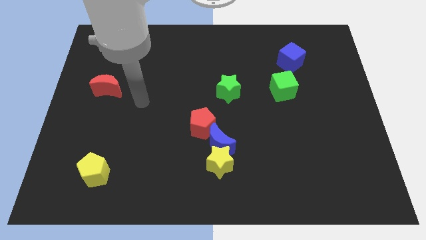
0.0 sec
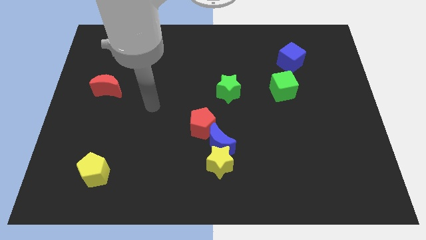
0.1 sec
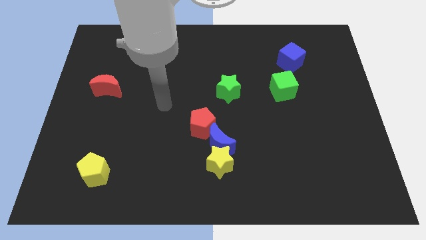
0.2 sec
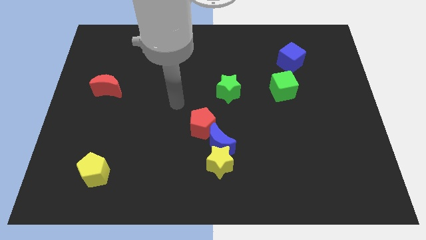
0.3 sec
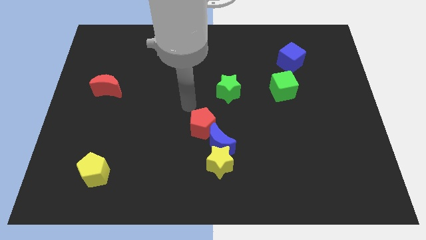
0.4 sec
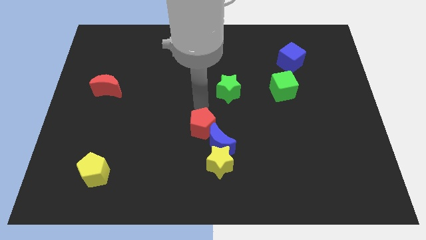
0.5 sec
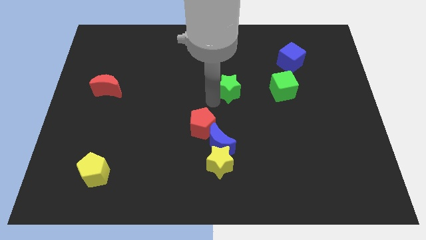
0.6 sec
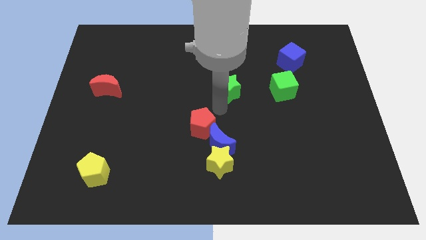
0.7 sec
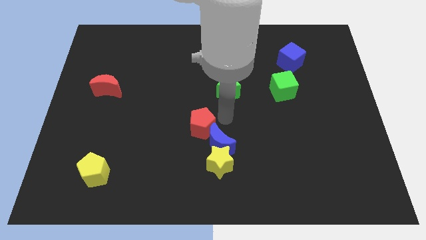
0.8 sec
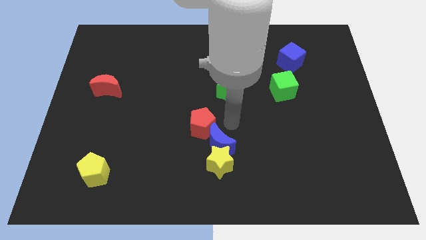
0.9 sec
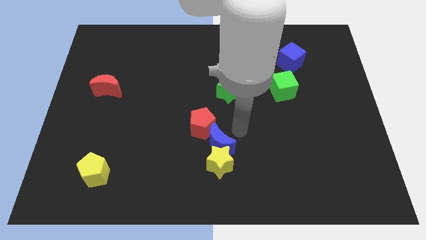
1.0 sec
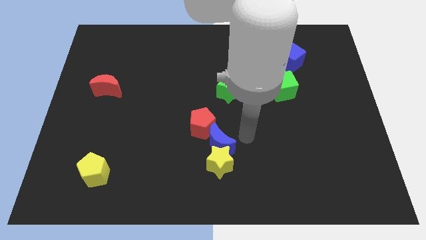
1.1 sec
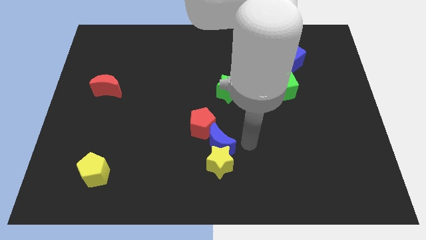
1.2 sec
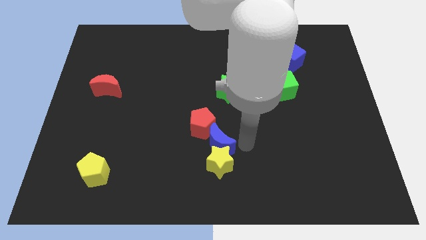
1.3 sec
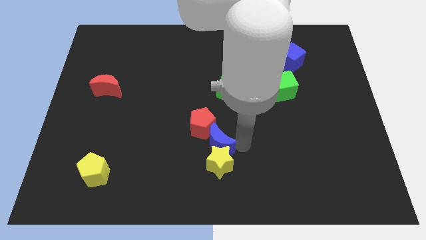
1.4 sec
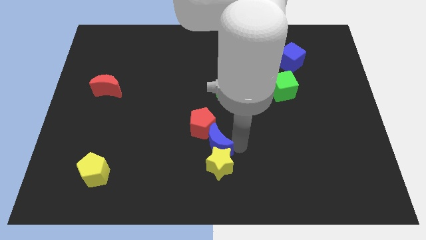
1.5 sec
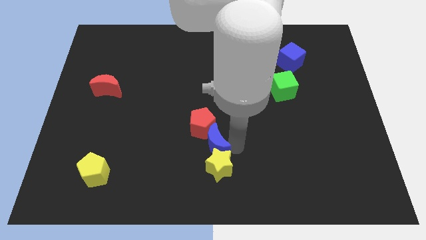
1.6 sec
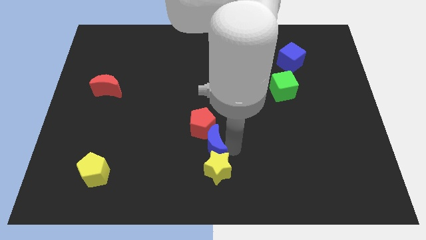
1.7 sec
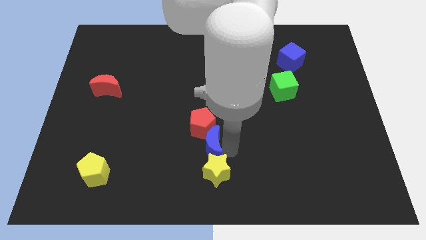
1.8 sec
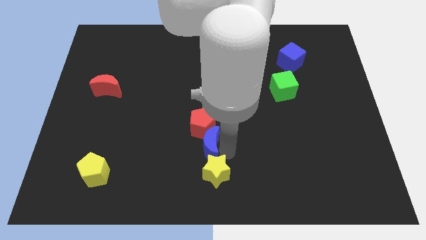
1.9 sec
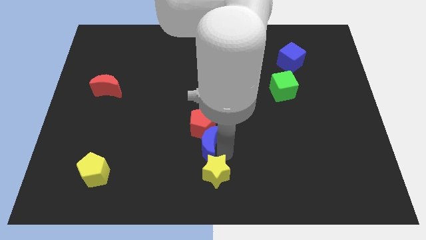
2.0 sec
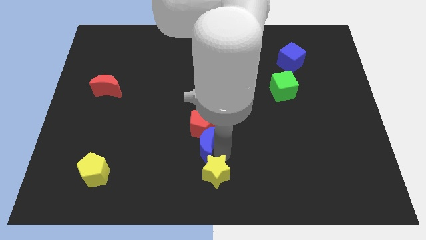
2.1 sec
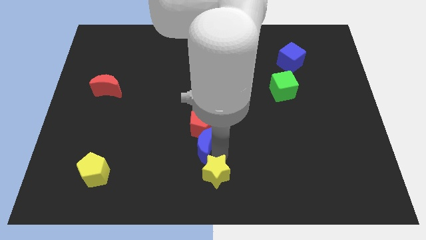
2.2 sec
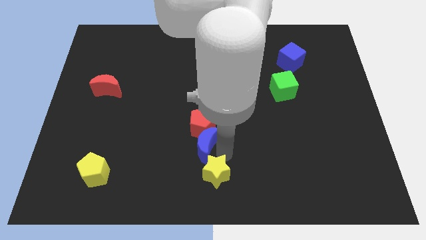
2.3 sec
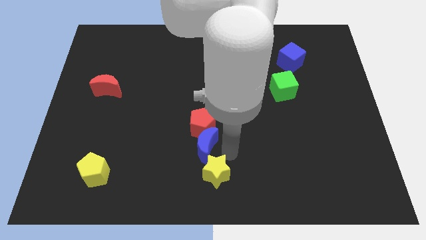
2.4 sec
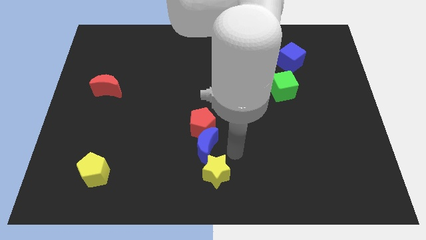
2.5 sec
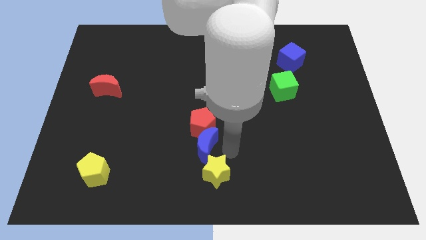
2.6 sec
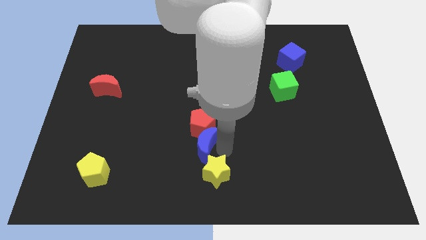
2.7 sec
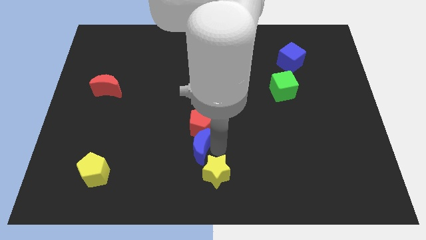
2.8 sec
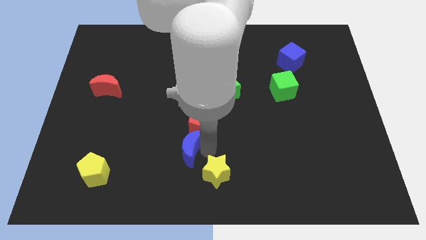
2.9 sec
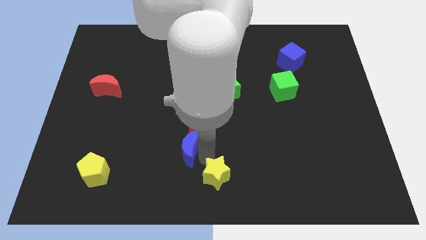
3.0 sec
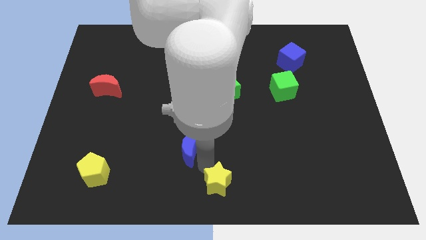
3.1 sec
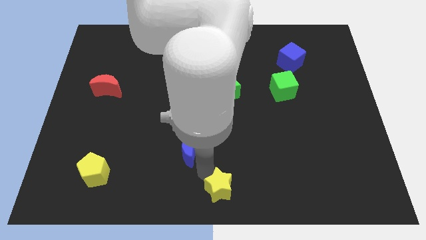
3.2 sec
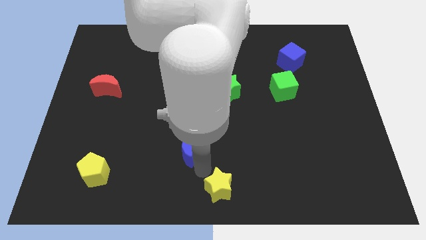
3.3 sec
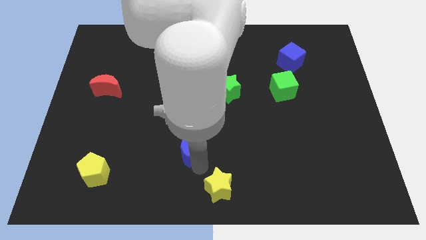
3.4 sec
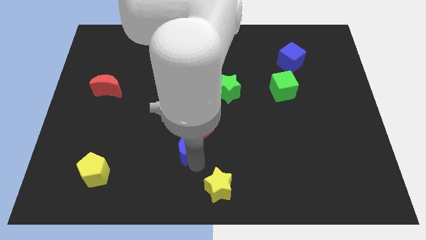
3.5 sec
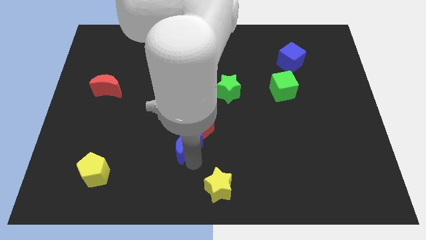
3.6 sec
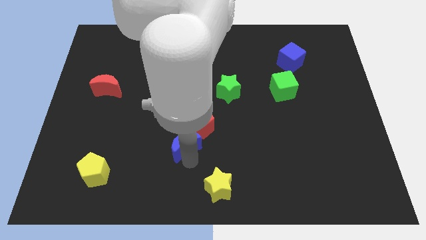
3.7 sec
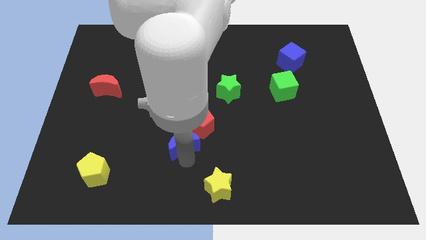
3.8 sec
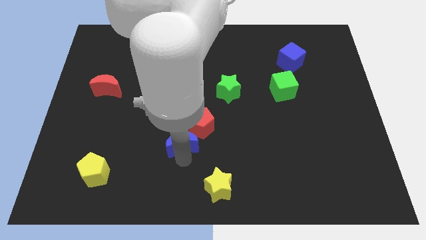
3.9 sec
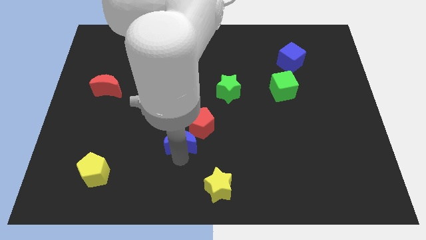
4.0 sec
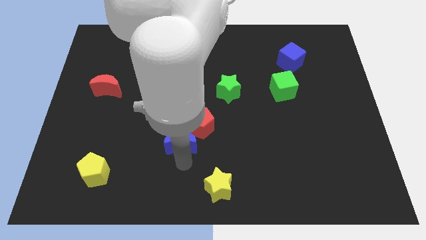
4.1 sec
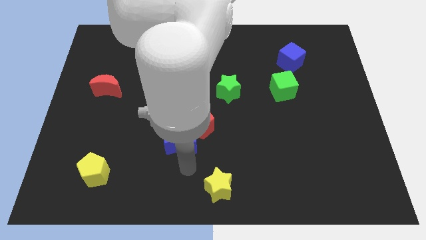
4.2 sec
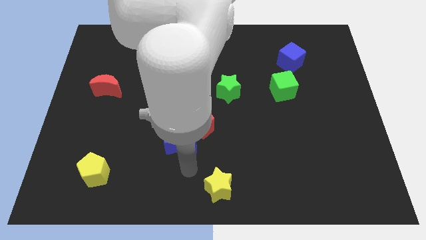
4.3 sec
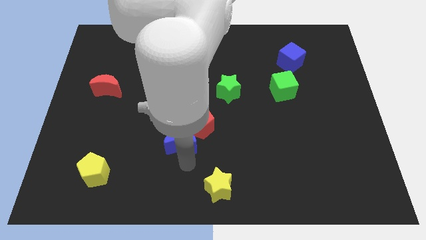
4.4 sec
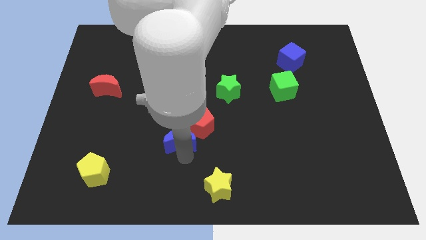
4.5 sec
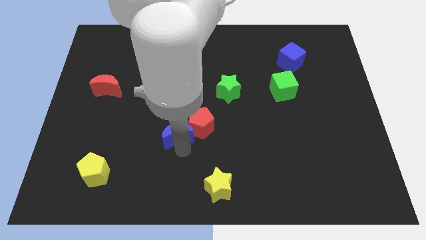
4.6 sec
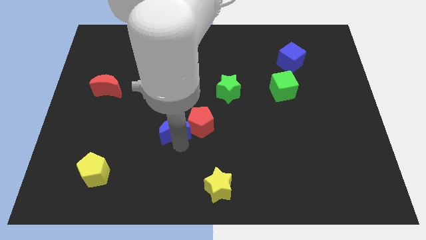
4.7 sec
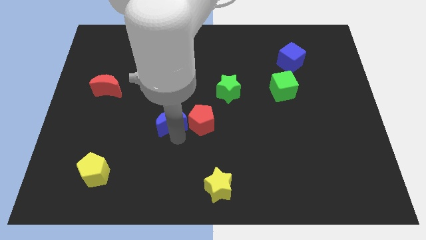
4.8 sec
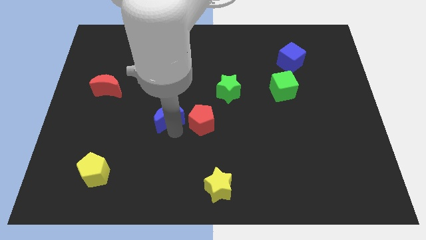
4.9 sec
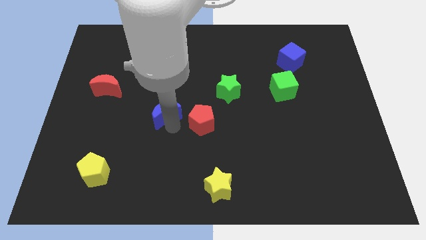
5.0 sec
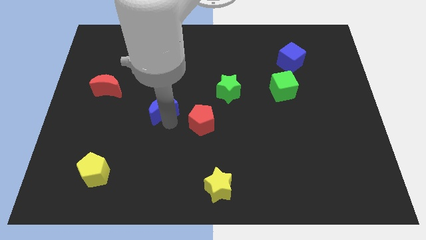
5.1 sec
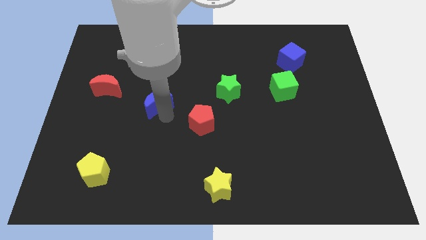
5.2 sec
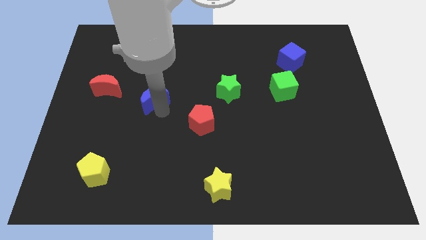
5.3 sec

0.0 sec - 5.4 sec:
push the blue moon to the right of the red moon

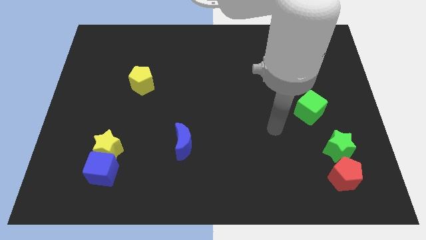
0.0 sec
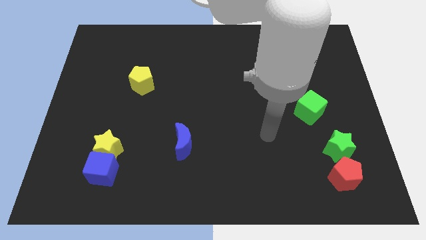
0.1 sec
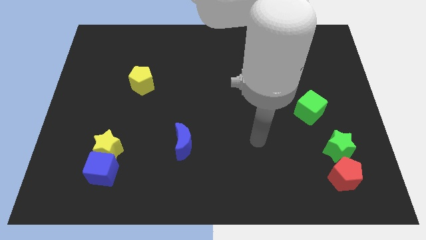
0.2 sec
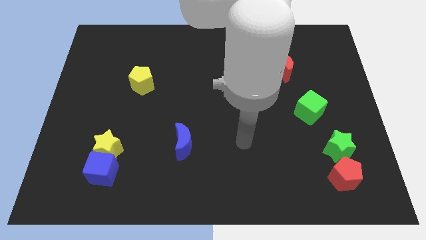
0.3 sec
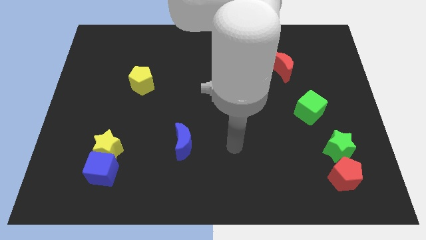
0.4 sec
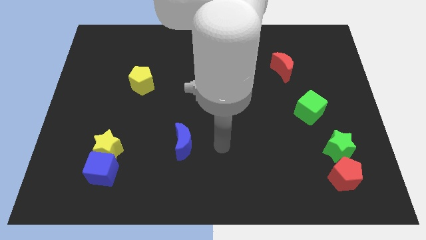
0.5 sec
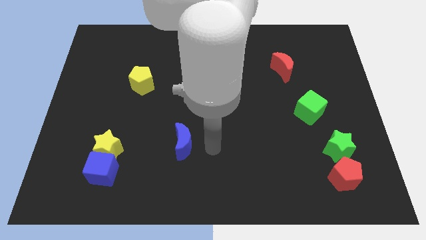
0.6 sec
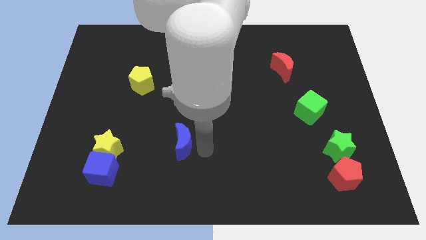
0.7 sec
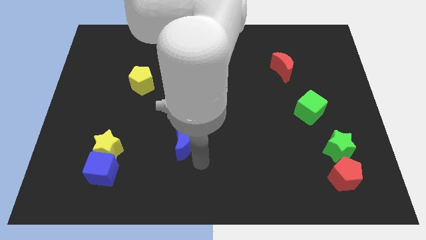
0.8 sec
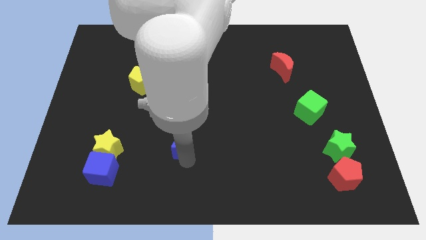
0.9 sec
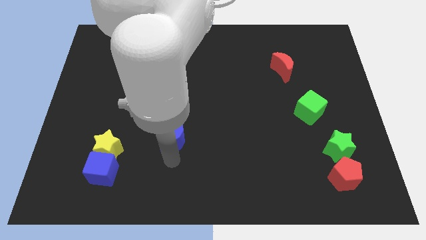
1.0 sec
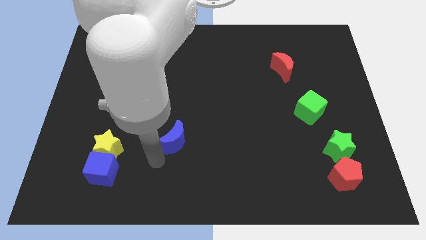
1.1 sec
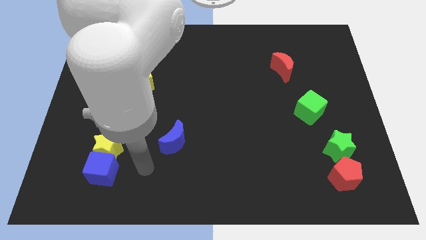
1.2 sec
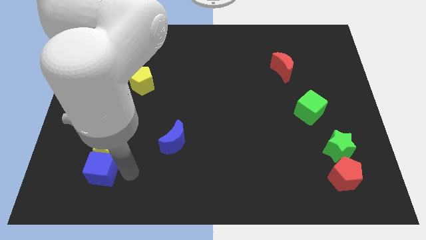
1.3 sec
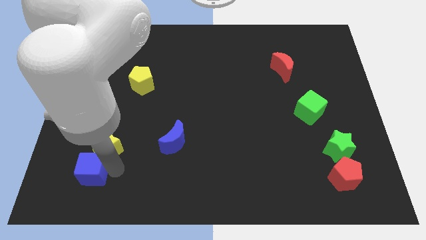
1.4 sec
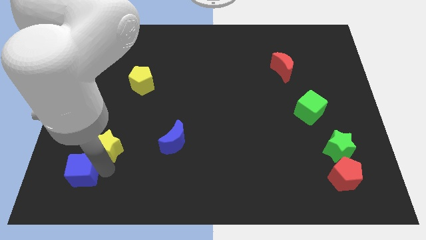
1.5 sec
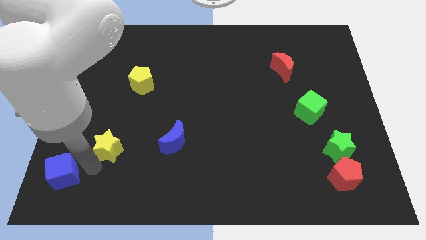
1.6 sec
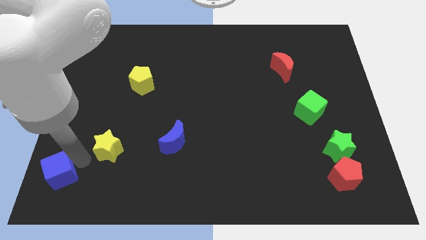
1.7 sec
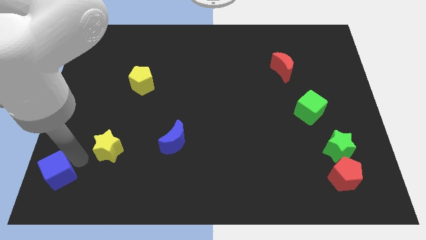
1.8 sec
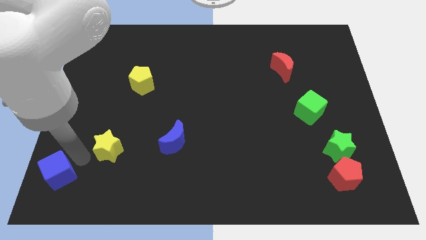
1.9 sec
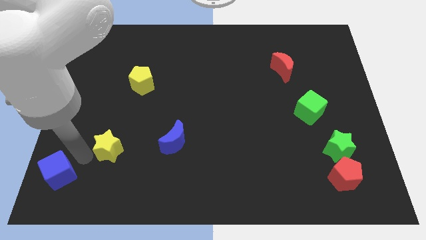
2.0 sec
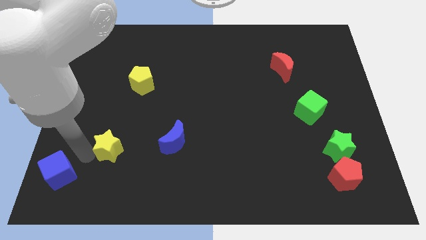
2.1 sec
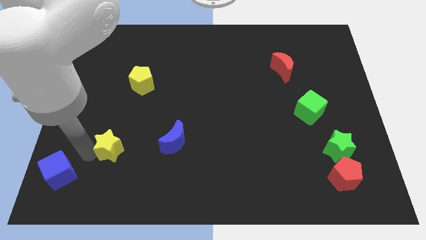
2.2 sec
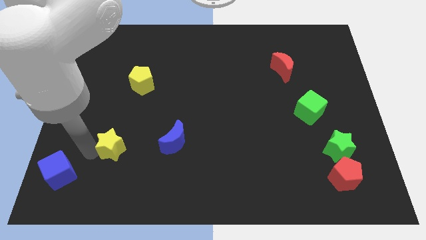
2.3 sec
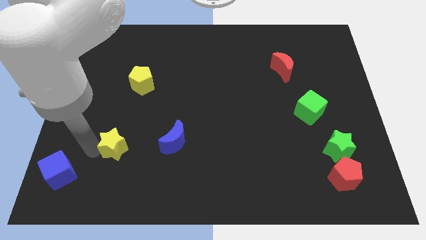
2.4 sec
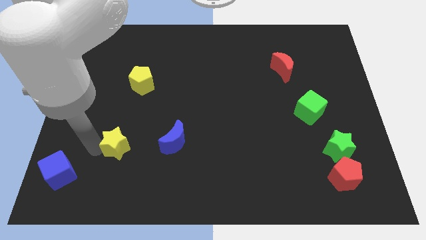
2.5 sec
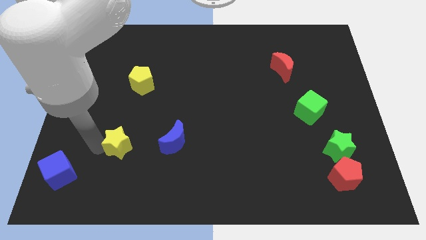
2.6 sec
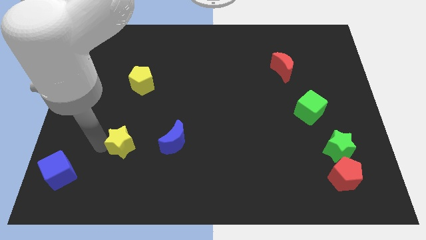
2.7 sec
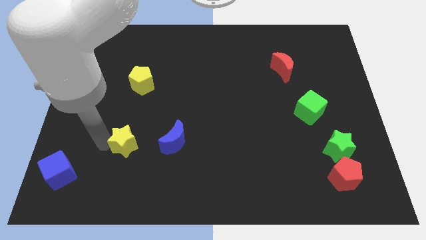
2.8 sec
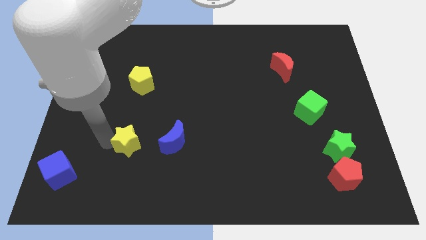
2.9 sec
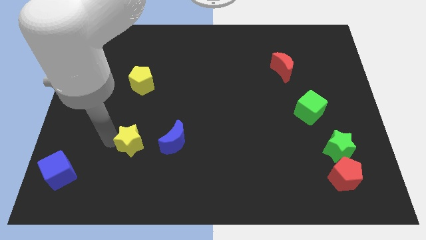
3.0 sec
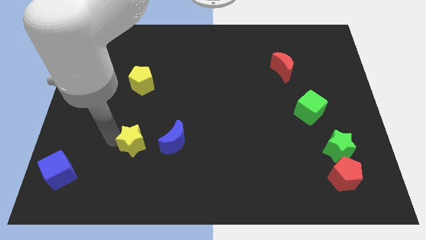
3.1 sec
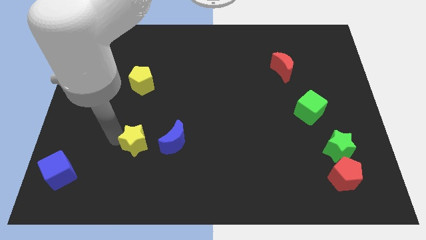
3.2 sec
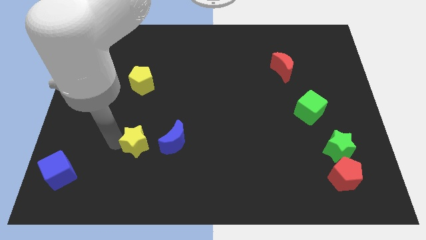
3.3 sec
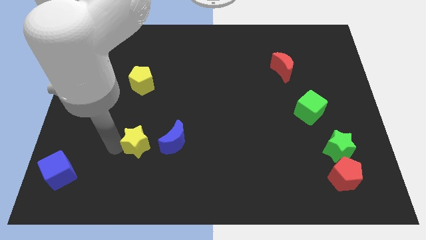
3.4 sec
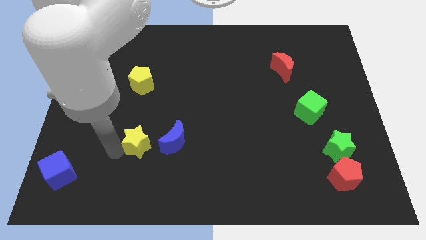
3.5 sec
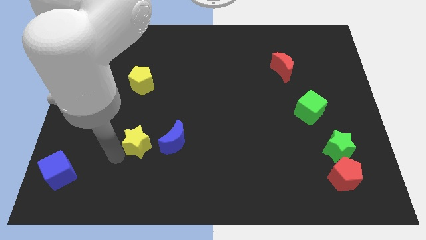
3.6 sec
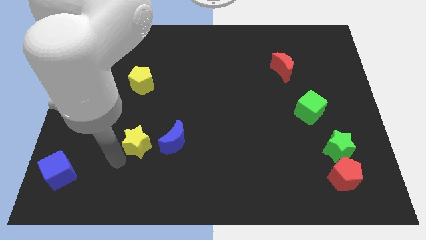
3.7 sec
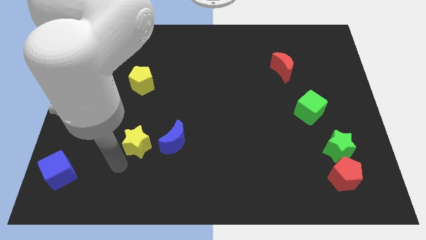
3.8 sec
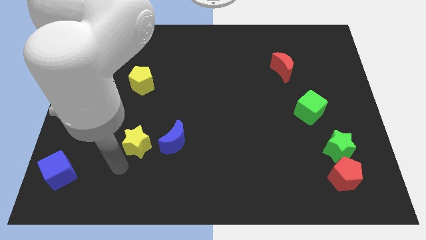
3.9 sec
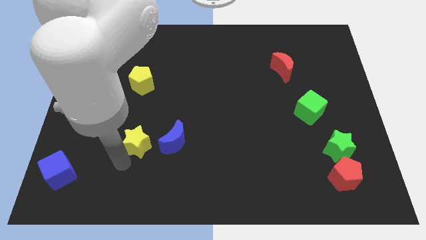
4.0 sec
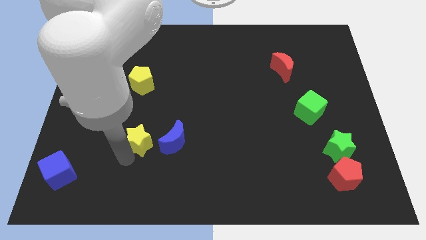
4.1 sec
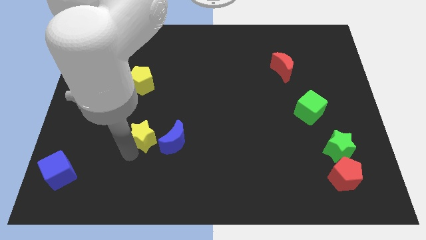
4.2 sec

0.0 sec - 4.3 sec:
push the yellow star to the top left of the blue moon
